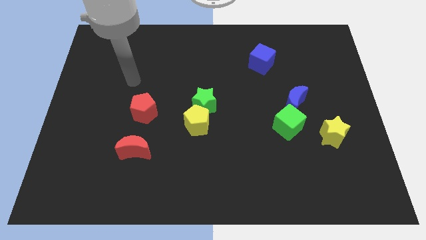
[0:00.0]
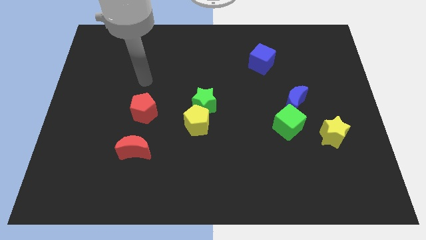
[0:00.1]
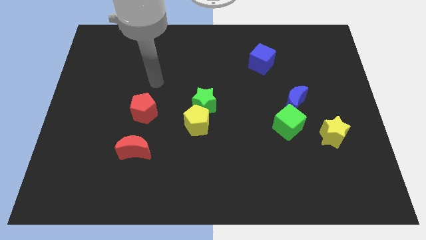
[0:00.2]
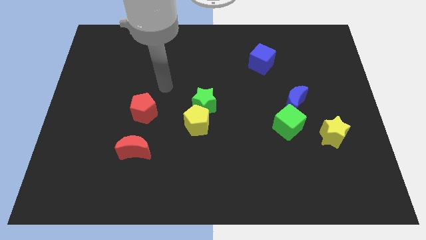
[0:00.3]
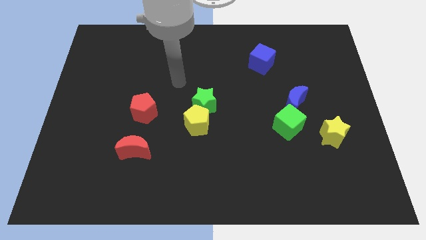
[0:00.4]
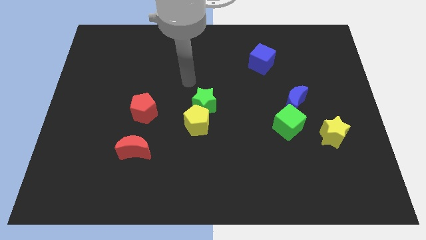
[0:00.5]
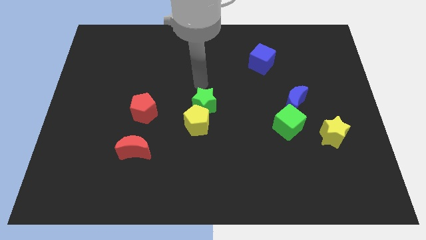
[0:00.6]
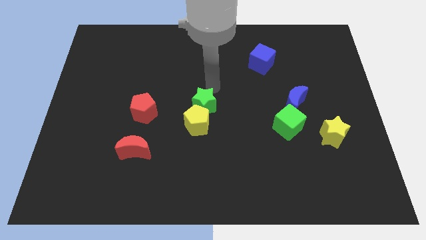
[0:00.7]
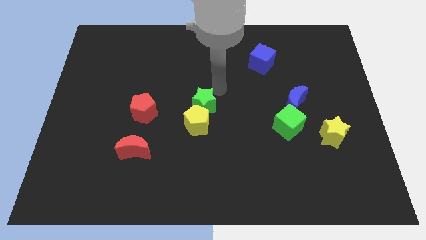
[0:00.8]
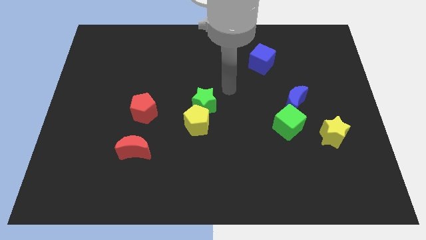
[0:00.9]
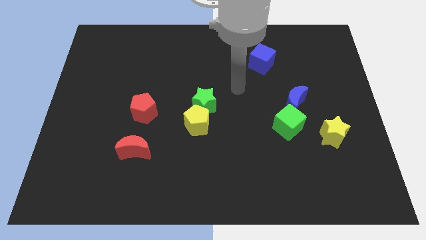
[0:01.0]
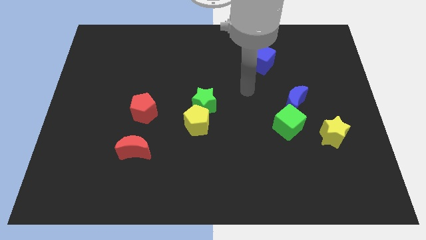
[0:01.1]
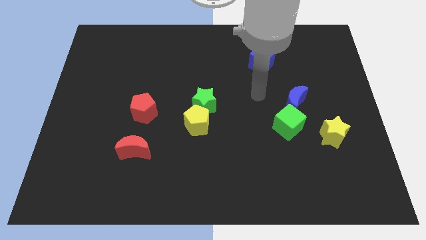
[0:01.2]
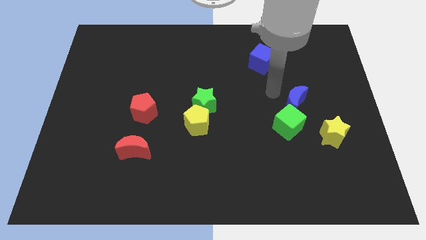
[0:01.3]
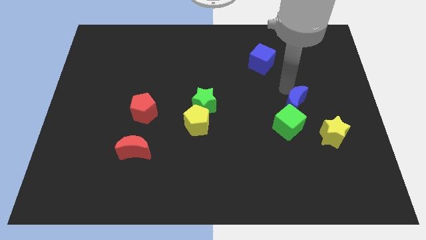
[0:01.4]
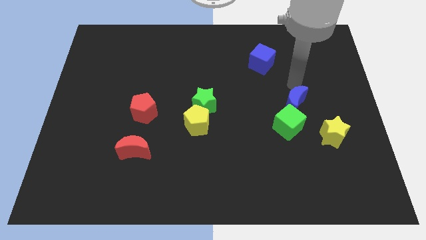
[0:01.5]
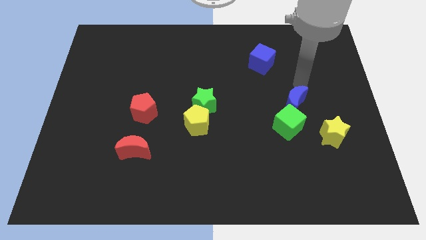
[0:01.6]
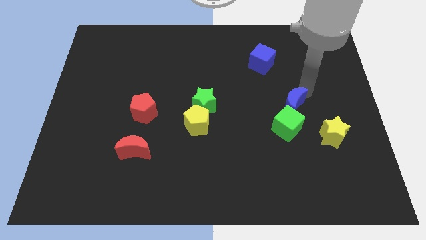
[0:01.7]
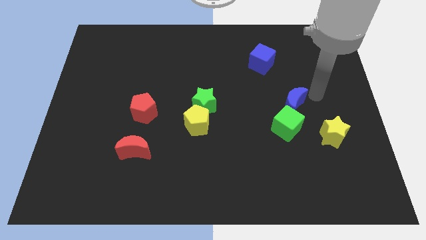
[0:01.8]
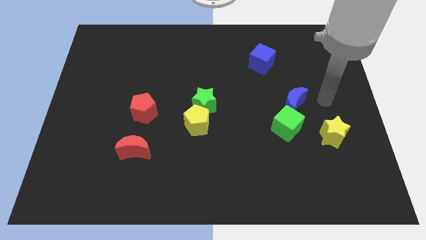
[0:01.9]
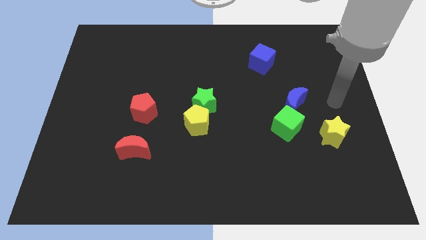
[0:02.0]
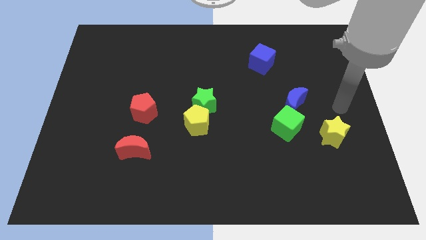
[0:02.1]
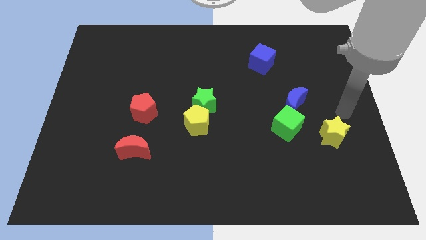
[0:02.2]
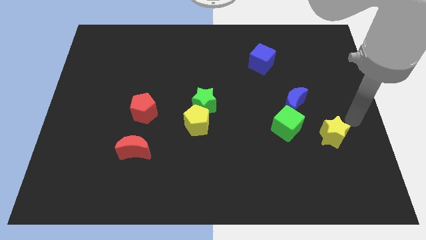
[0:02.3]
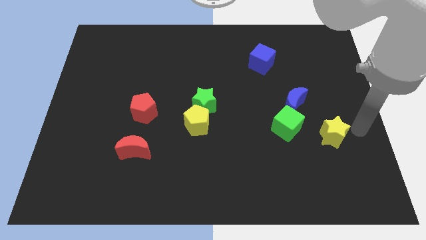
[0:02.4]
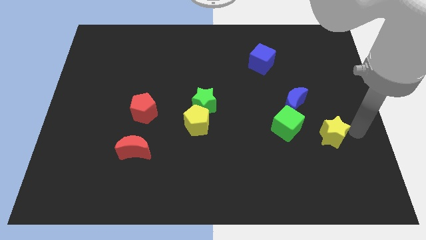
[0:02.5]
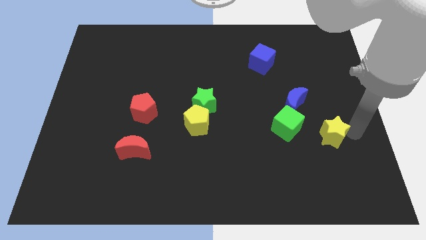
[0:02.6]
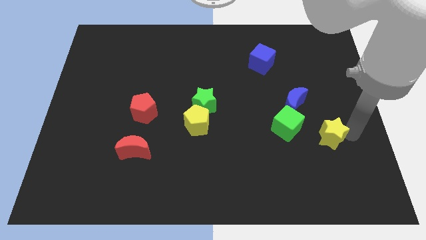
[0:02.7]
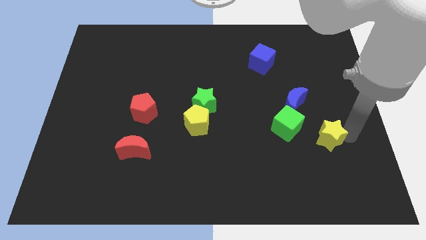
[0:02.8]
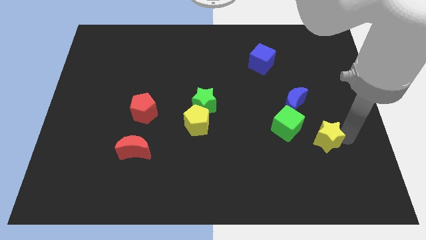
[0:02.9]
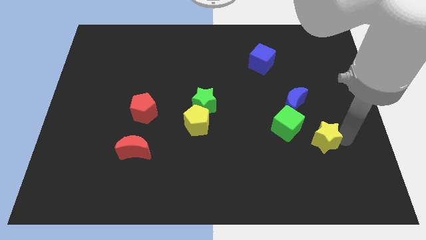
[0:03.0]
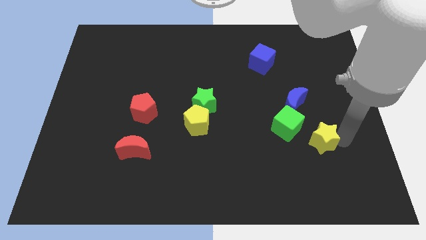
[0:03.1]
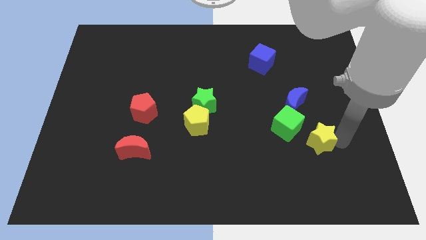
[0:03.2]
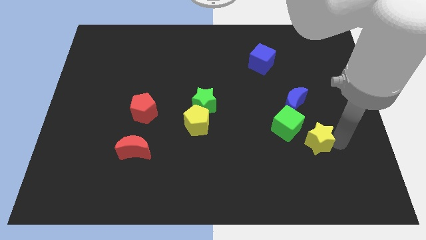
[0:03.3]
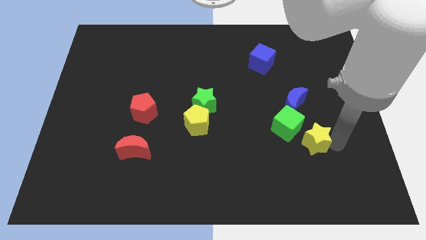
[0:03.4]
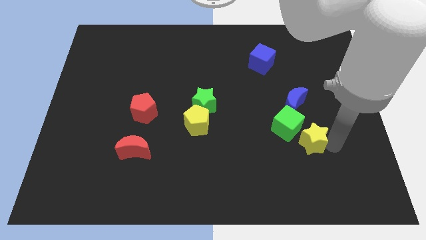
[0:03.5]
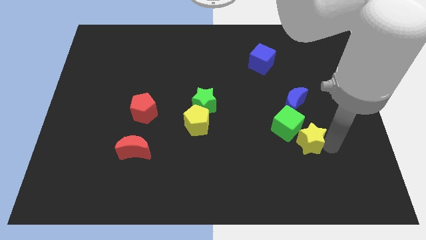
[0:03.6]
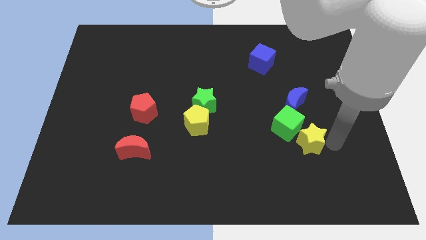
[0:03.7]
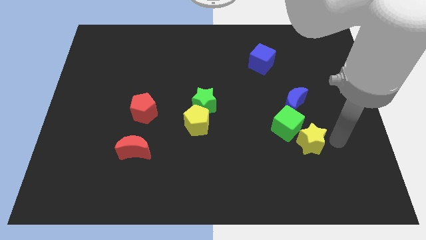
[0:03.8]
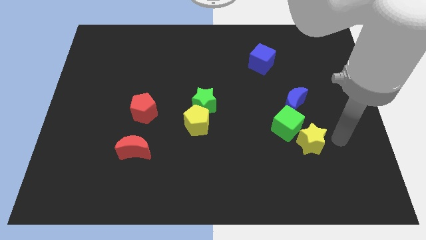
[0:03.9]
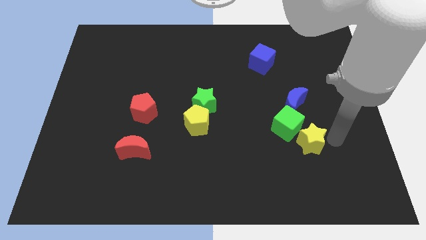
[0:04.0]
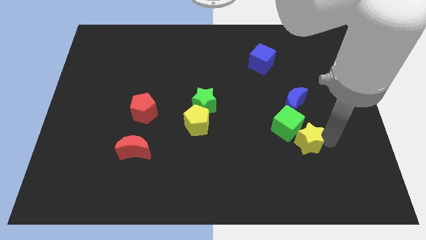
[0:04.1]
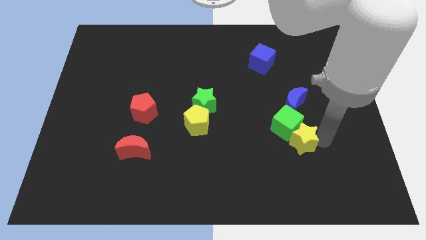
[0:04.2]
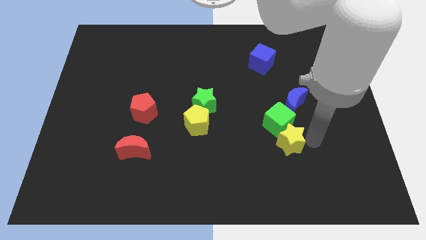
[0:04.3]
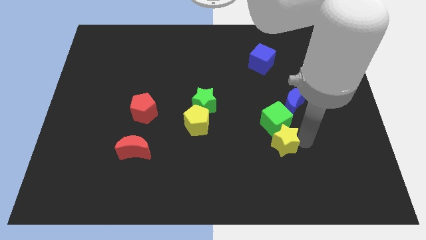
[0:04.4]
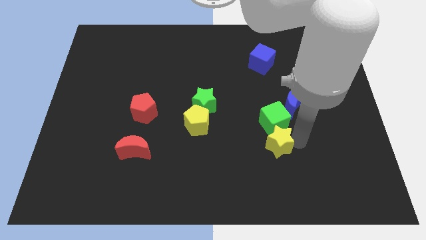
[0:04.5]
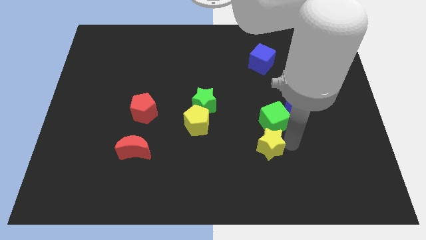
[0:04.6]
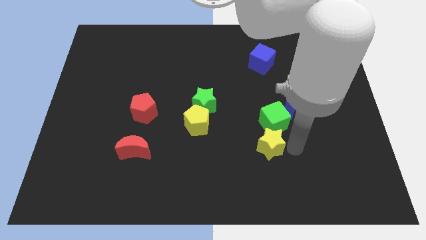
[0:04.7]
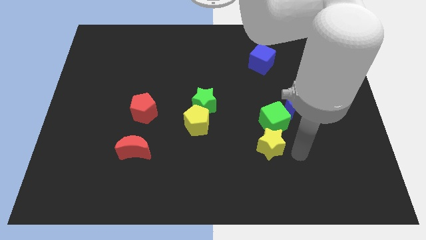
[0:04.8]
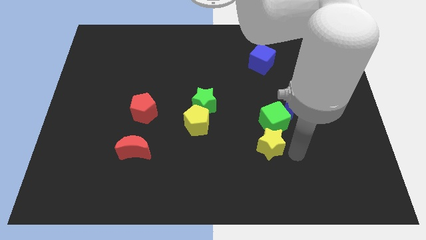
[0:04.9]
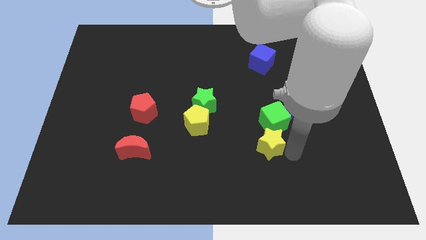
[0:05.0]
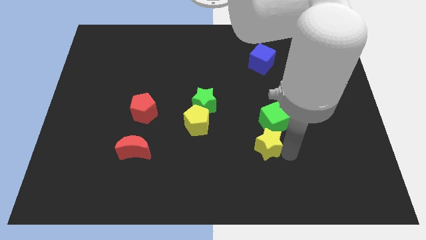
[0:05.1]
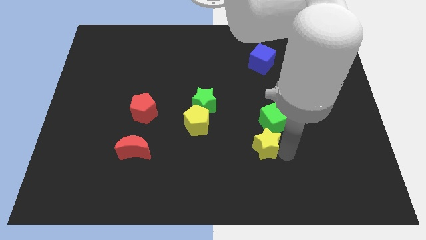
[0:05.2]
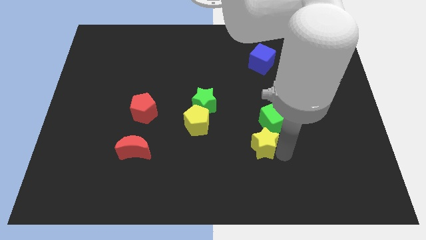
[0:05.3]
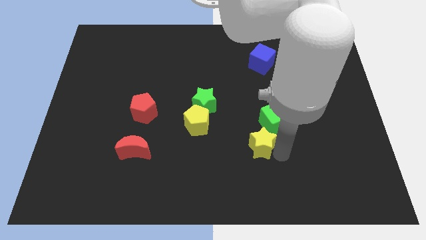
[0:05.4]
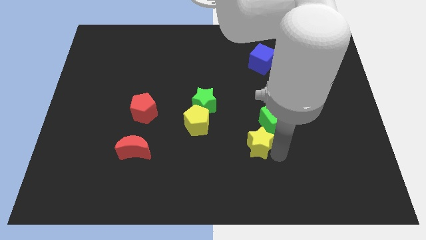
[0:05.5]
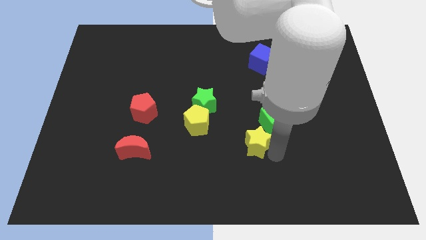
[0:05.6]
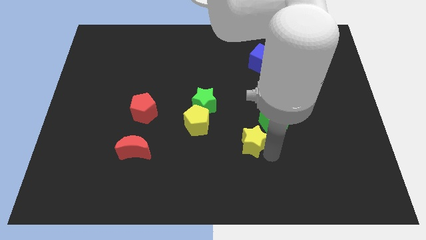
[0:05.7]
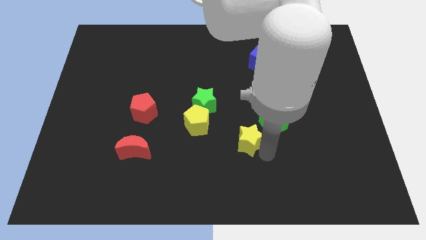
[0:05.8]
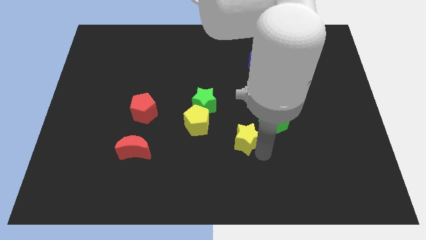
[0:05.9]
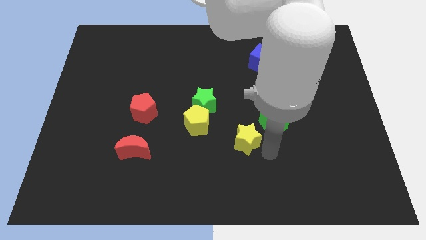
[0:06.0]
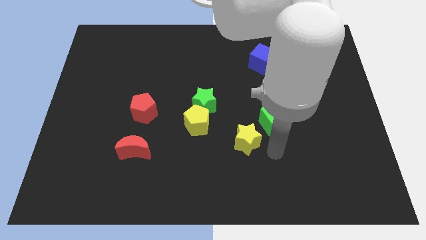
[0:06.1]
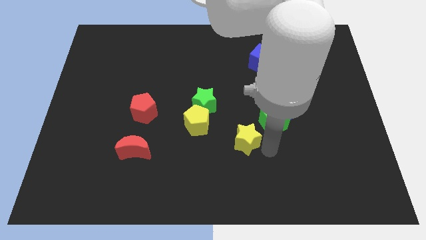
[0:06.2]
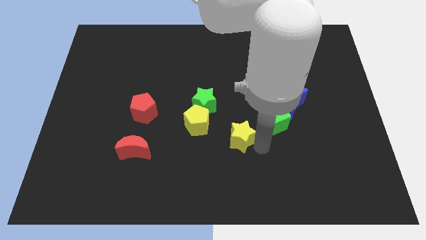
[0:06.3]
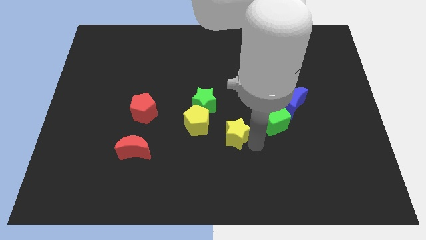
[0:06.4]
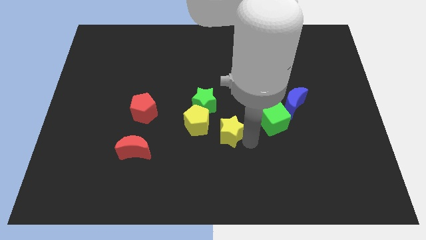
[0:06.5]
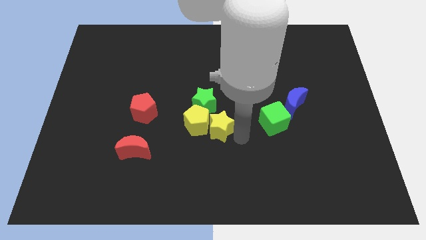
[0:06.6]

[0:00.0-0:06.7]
move the yellow star towards the yellow pentagon
